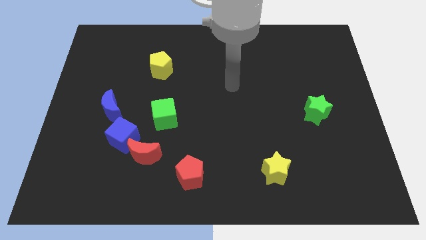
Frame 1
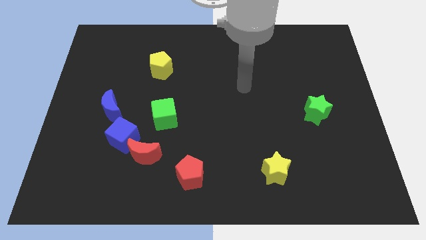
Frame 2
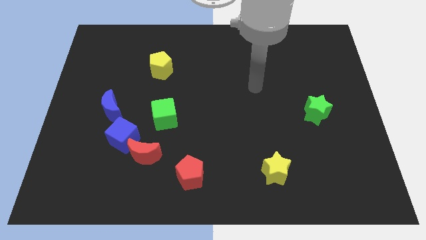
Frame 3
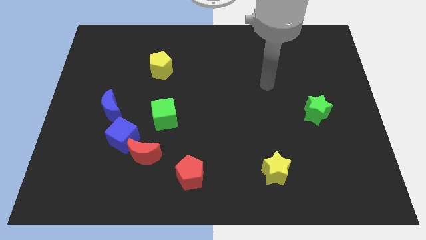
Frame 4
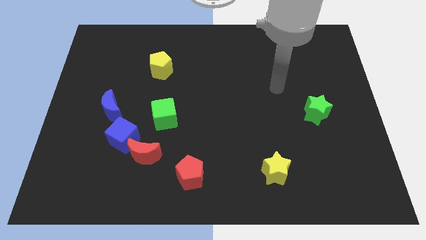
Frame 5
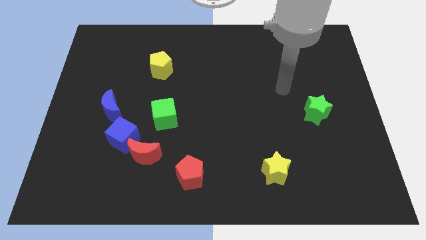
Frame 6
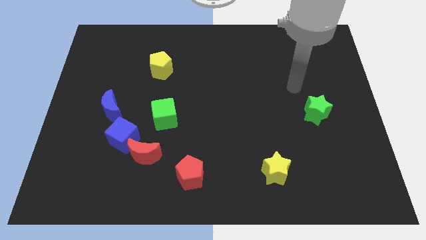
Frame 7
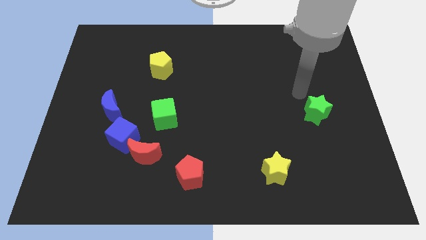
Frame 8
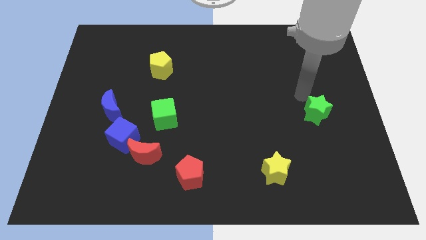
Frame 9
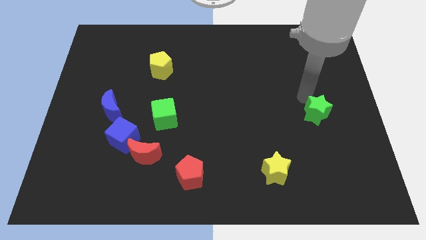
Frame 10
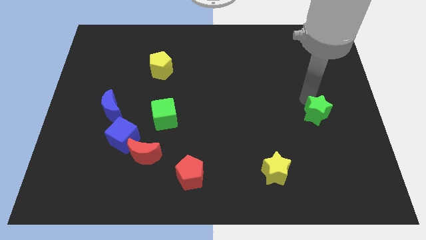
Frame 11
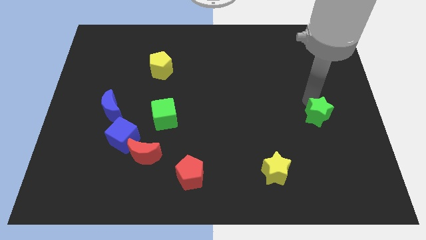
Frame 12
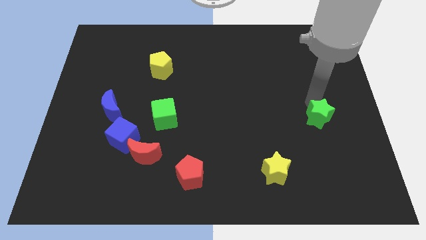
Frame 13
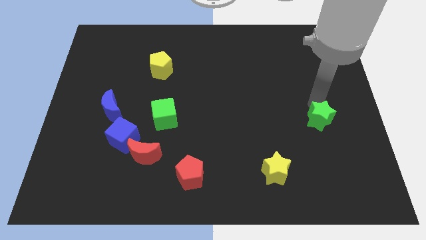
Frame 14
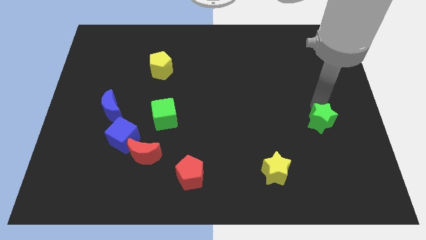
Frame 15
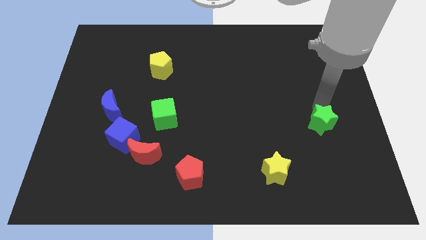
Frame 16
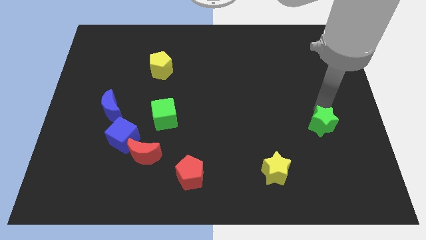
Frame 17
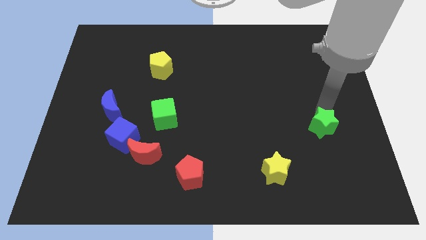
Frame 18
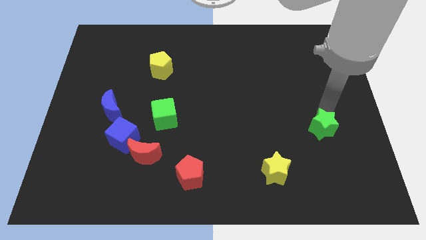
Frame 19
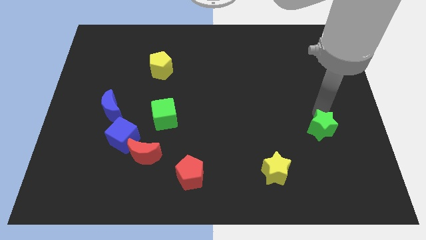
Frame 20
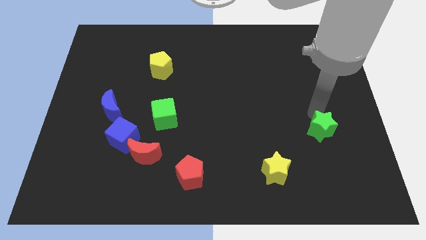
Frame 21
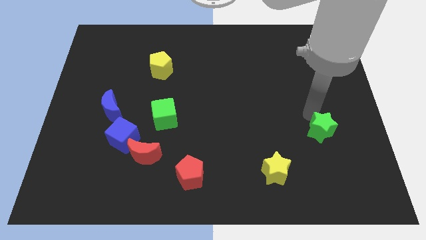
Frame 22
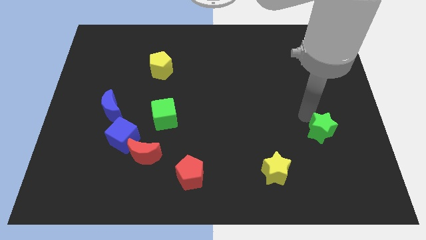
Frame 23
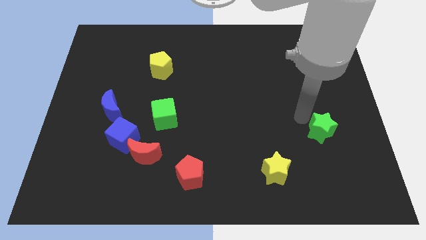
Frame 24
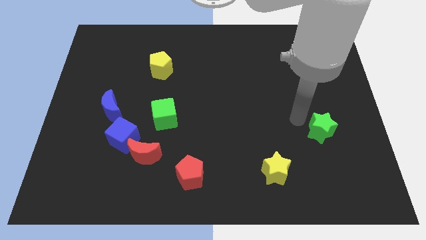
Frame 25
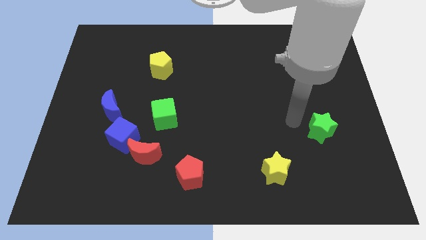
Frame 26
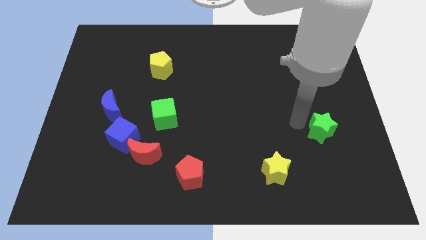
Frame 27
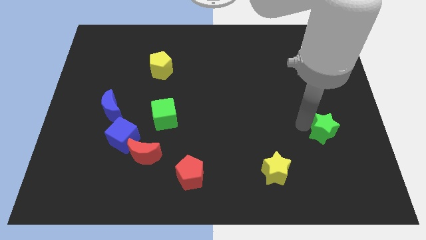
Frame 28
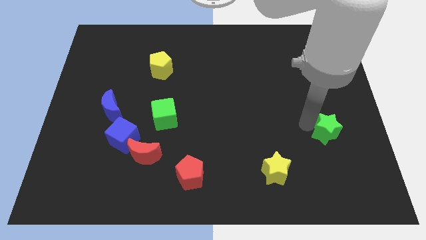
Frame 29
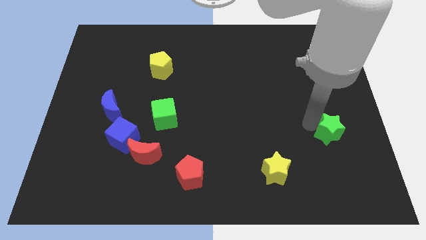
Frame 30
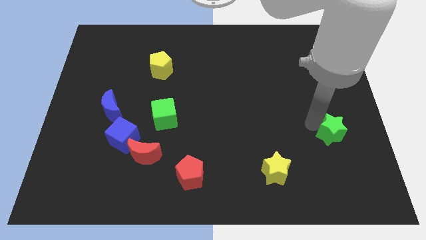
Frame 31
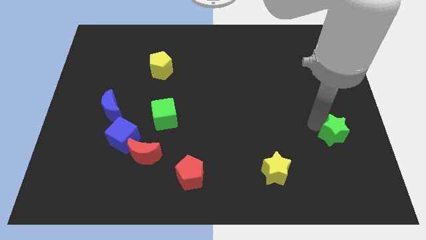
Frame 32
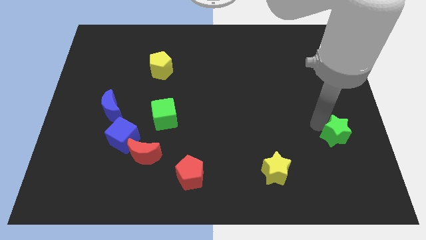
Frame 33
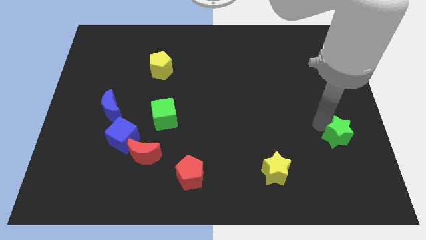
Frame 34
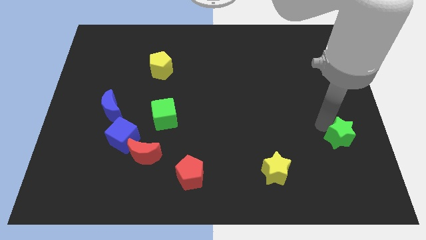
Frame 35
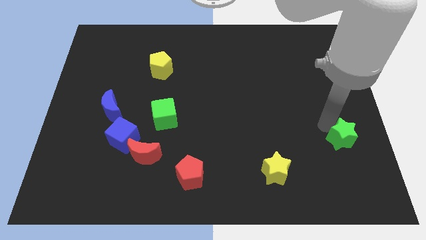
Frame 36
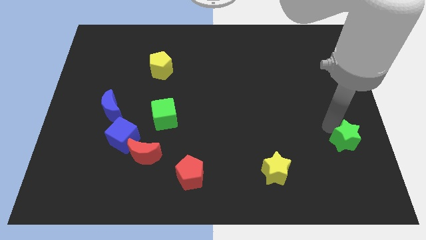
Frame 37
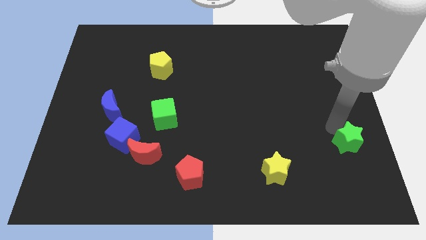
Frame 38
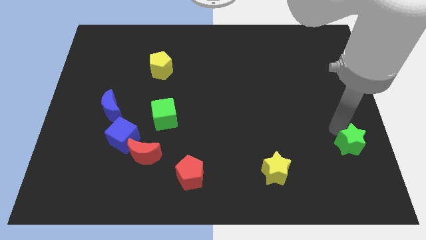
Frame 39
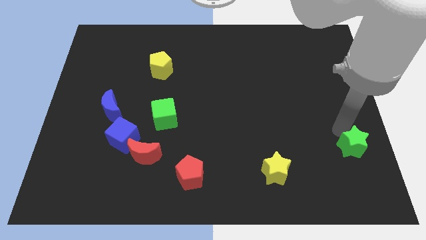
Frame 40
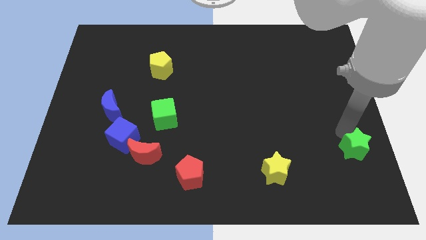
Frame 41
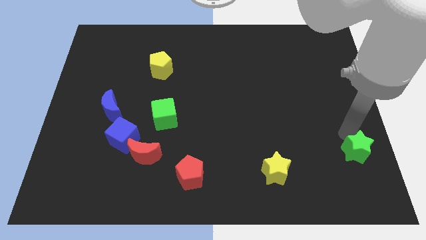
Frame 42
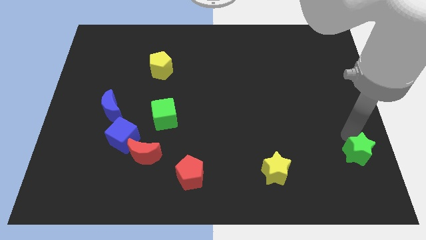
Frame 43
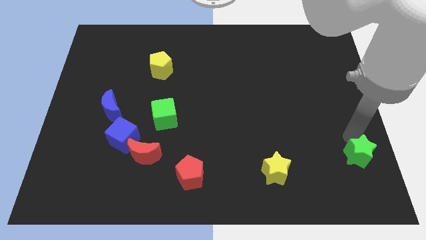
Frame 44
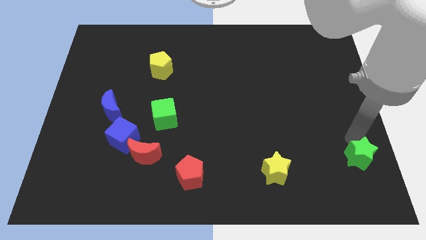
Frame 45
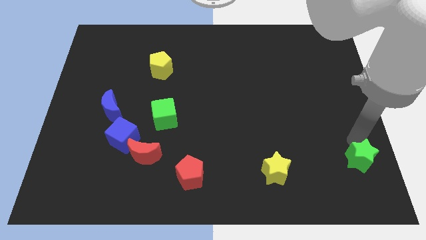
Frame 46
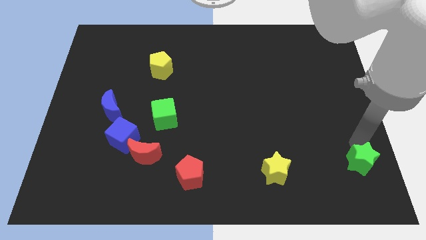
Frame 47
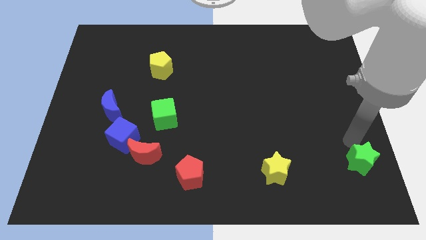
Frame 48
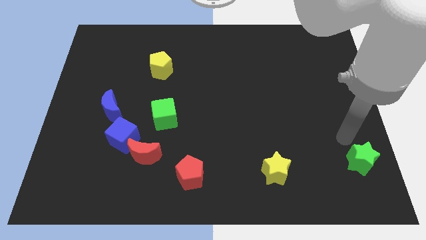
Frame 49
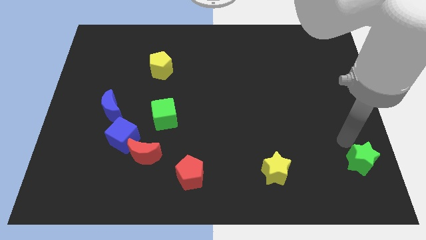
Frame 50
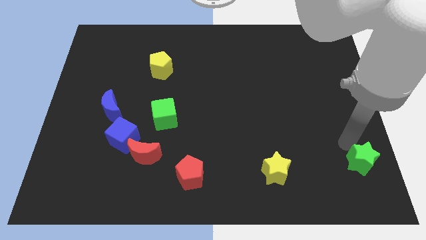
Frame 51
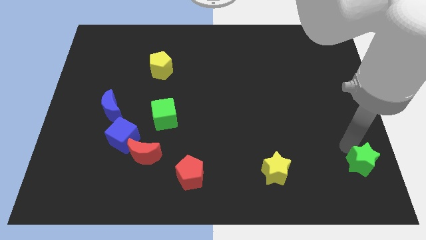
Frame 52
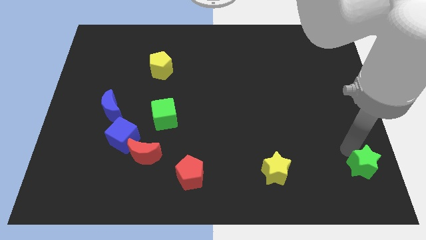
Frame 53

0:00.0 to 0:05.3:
push the green star to the bottom right of the board
